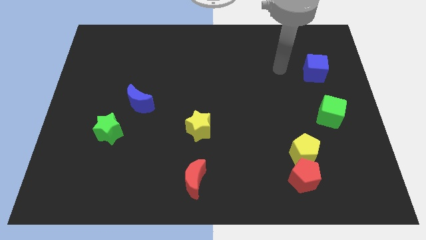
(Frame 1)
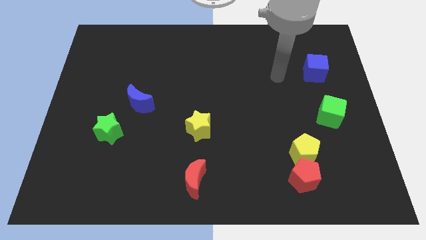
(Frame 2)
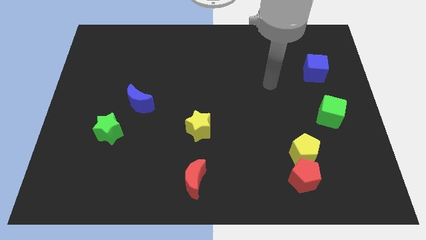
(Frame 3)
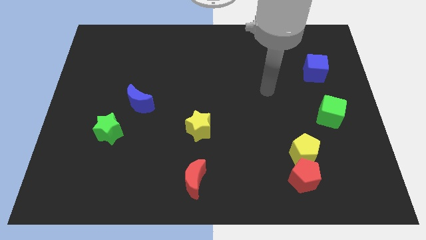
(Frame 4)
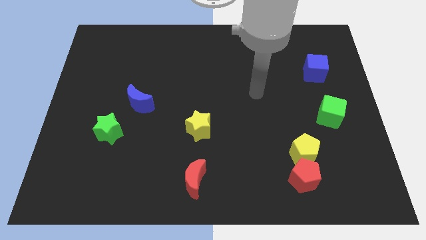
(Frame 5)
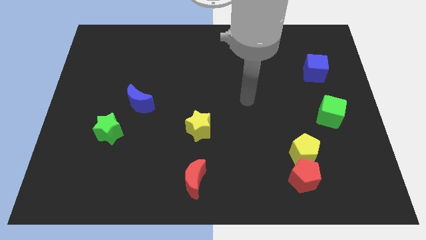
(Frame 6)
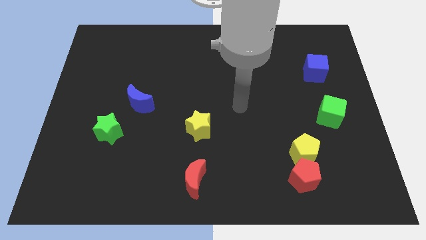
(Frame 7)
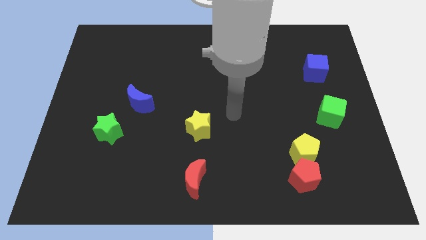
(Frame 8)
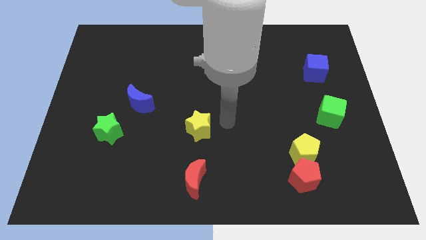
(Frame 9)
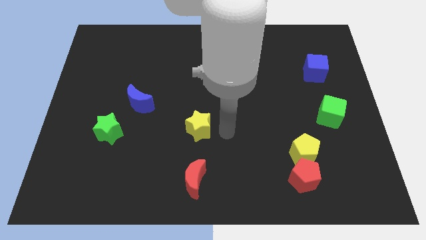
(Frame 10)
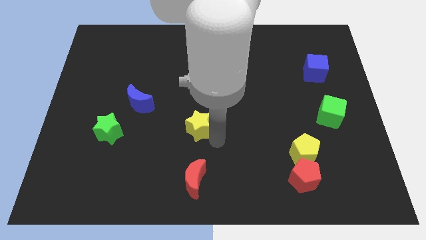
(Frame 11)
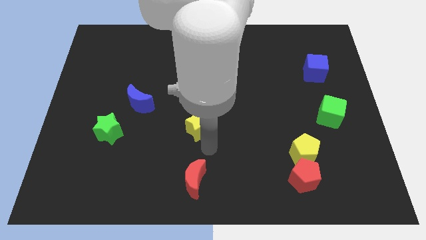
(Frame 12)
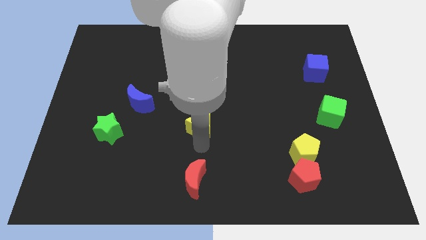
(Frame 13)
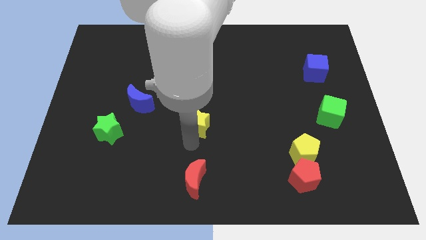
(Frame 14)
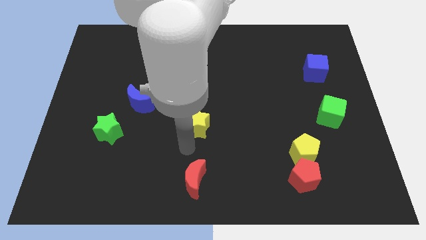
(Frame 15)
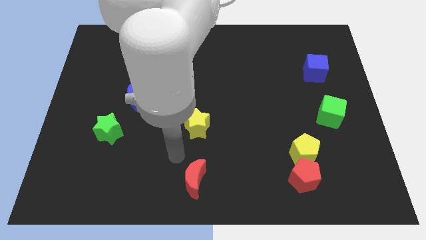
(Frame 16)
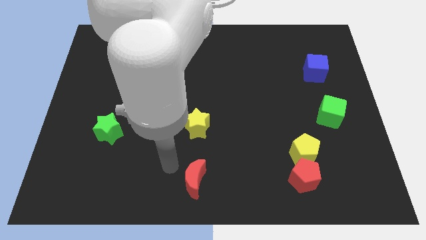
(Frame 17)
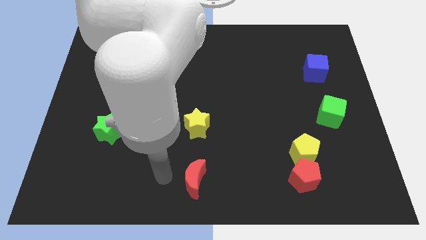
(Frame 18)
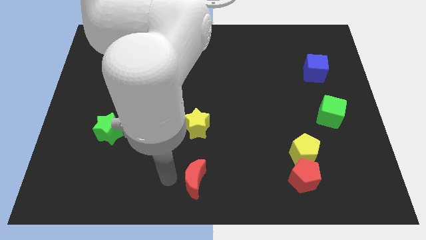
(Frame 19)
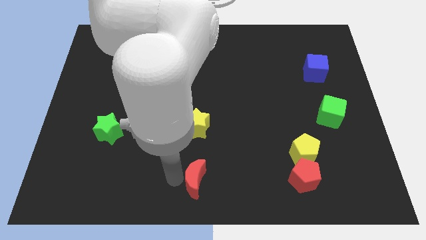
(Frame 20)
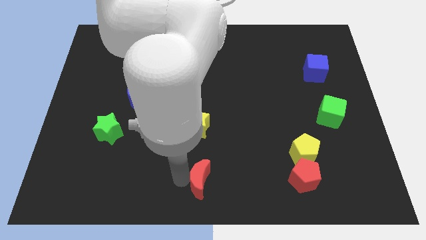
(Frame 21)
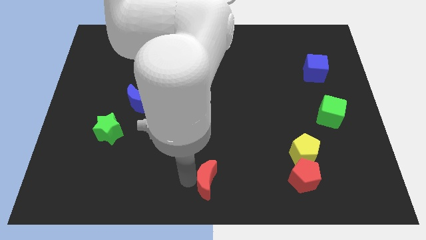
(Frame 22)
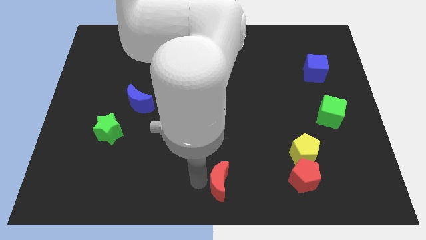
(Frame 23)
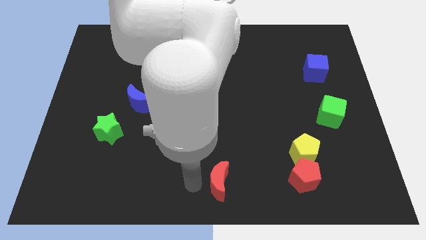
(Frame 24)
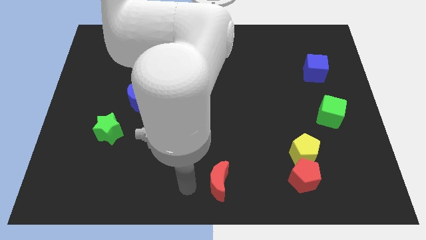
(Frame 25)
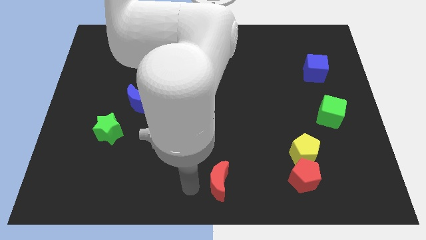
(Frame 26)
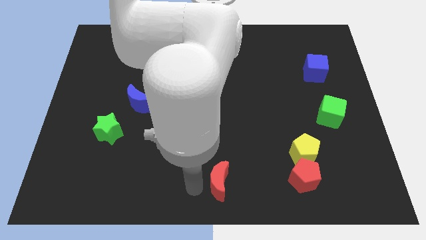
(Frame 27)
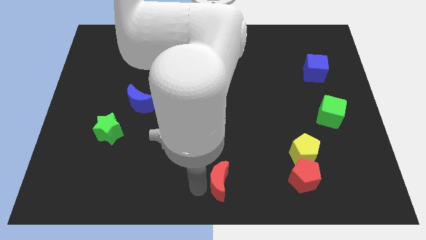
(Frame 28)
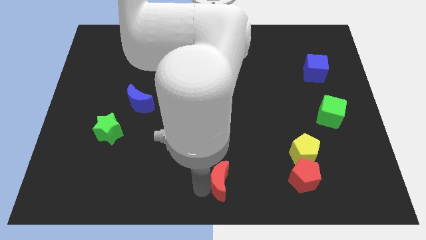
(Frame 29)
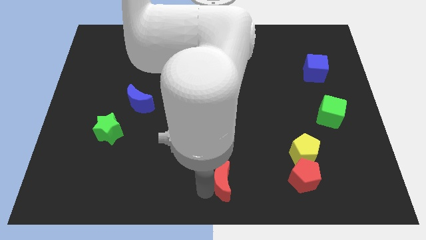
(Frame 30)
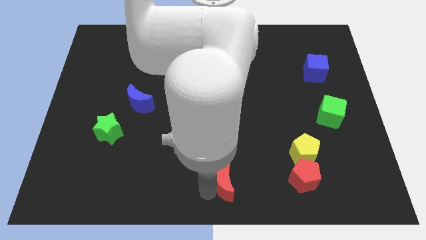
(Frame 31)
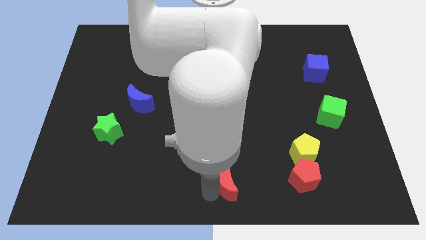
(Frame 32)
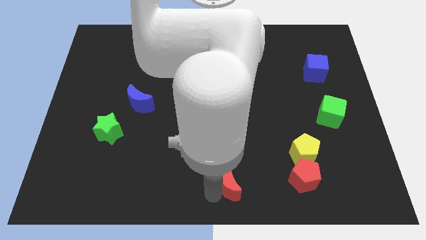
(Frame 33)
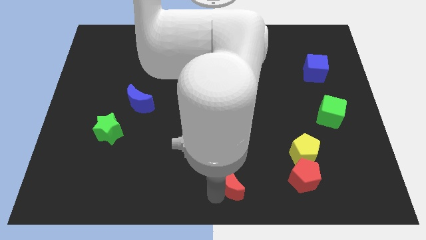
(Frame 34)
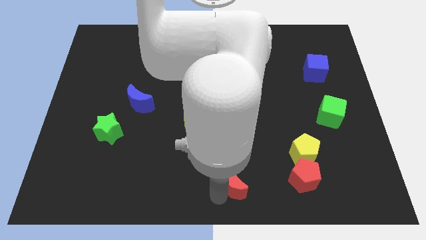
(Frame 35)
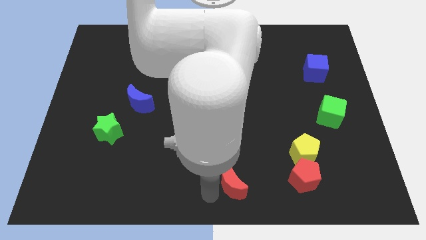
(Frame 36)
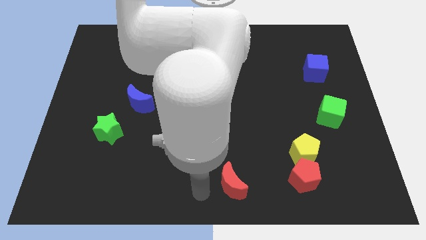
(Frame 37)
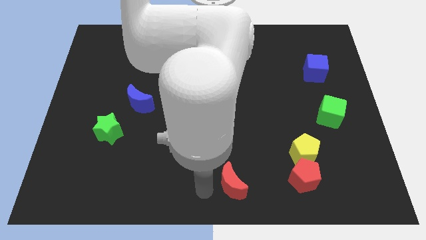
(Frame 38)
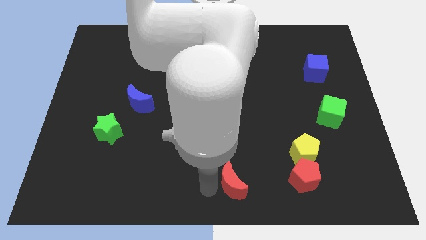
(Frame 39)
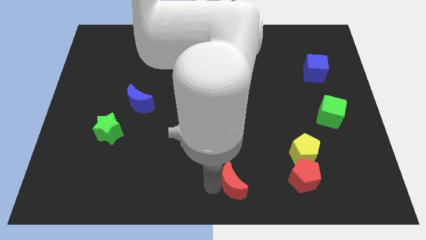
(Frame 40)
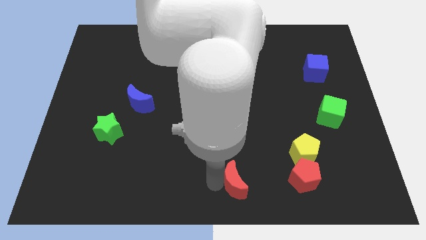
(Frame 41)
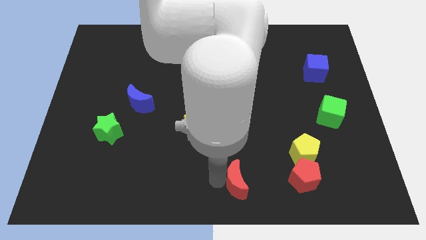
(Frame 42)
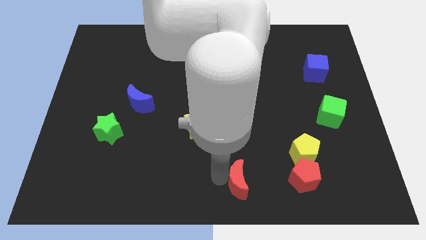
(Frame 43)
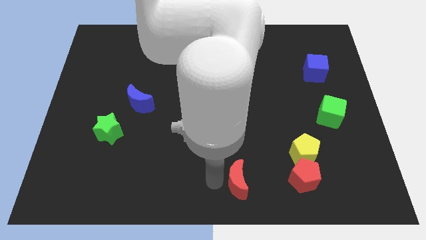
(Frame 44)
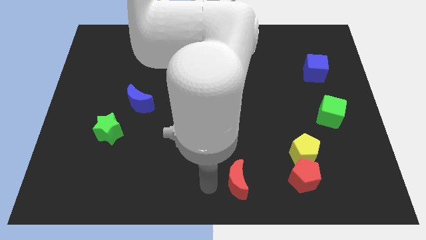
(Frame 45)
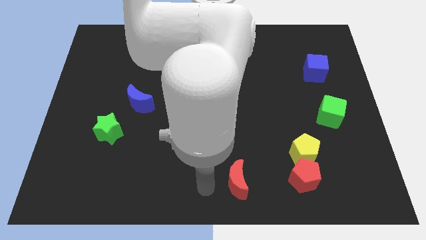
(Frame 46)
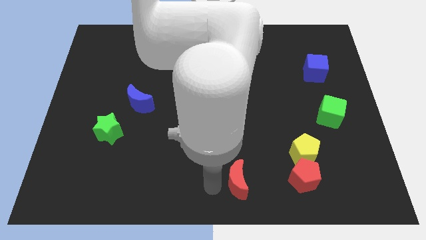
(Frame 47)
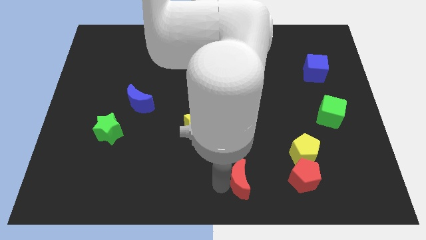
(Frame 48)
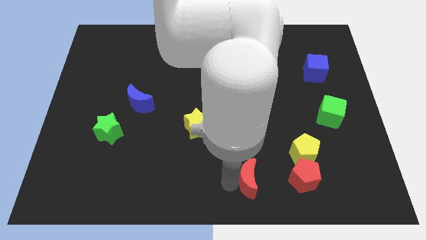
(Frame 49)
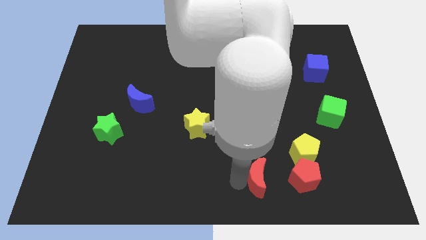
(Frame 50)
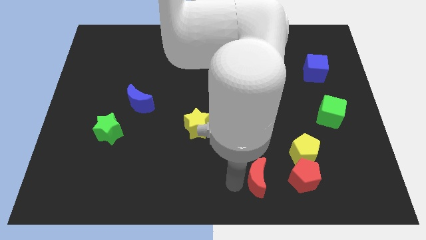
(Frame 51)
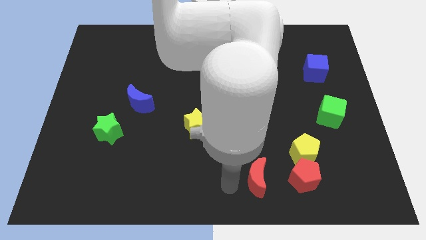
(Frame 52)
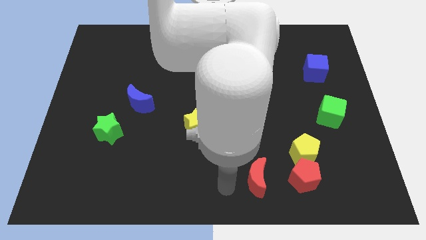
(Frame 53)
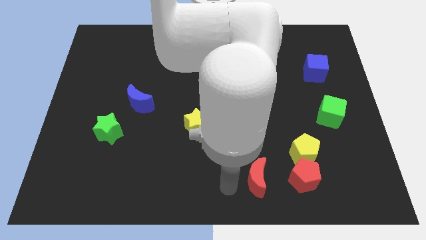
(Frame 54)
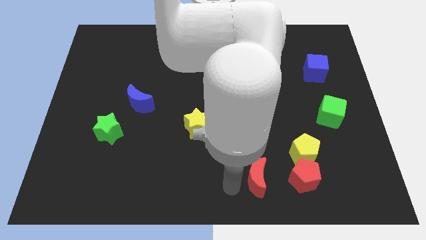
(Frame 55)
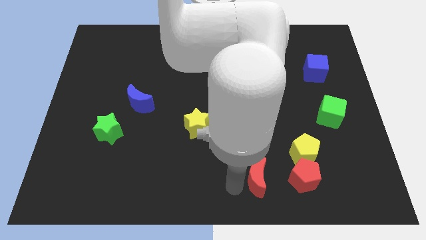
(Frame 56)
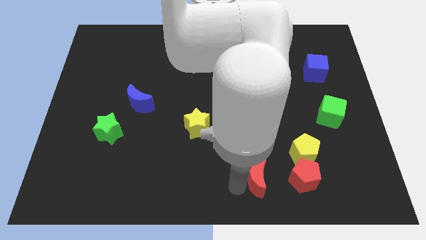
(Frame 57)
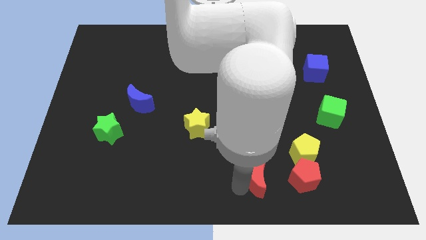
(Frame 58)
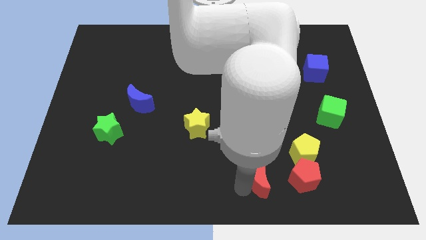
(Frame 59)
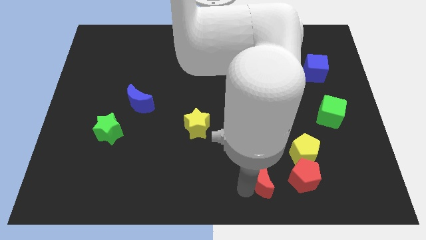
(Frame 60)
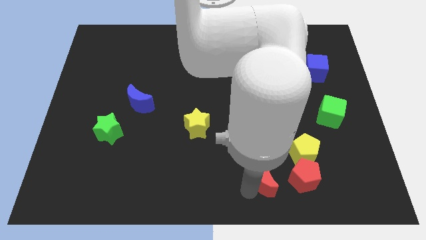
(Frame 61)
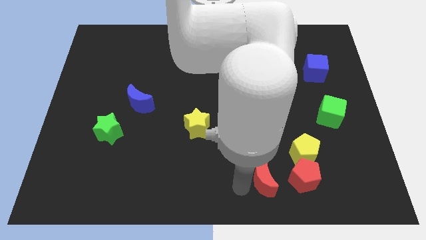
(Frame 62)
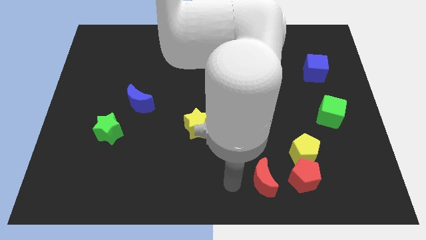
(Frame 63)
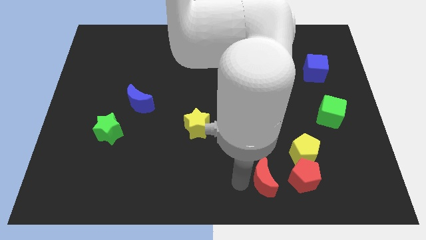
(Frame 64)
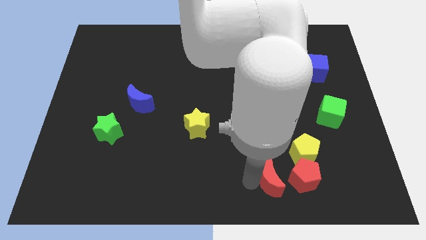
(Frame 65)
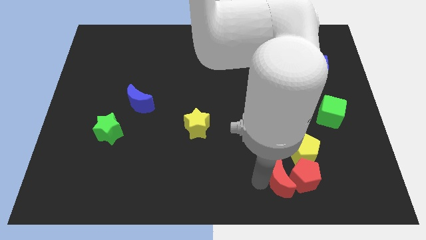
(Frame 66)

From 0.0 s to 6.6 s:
put the red moon close to the red pentagon

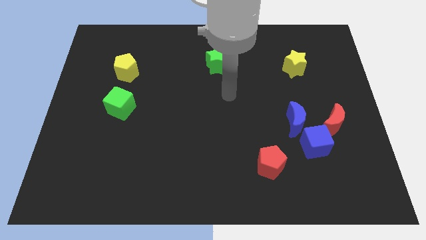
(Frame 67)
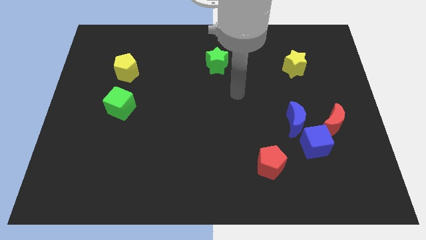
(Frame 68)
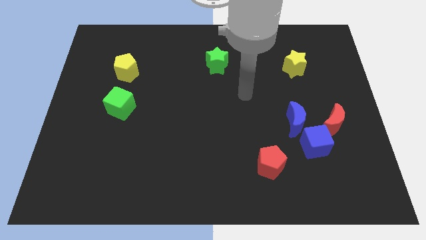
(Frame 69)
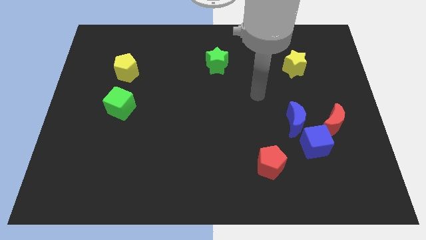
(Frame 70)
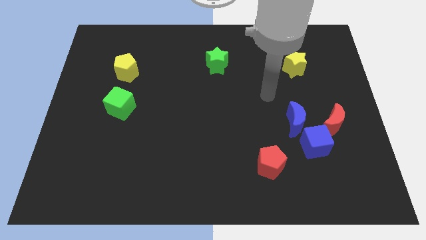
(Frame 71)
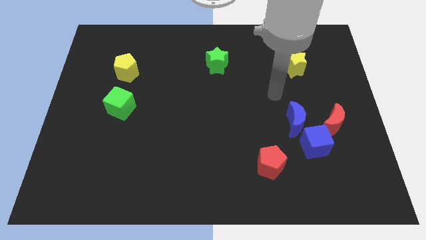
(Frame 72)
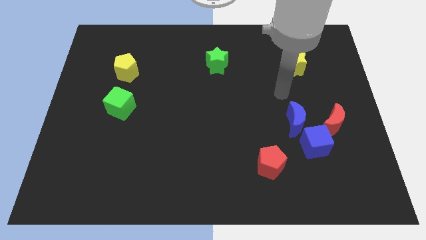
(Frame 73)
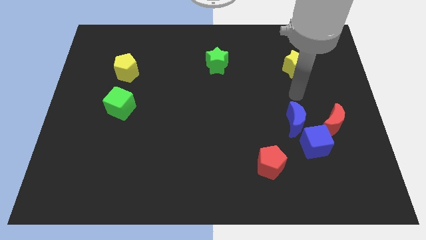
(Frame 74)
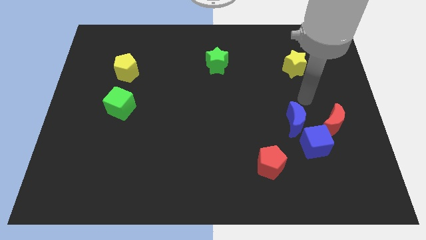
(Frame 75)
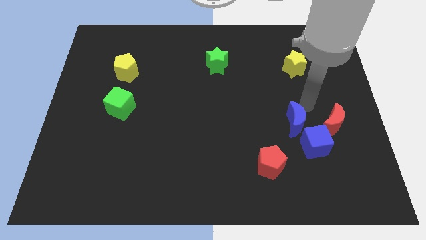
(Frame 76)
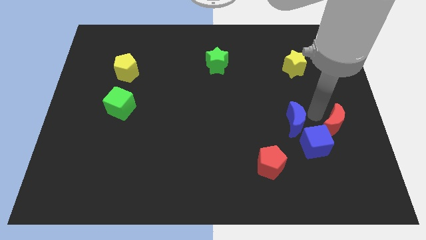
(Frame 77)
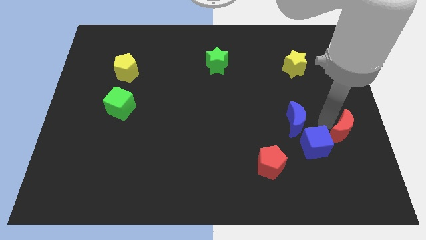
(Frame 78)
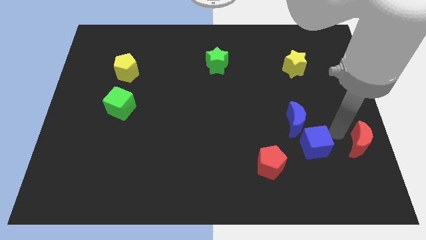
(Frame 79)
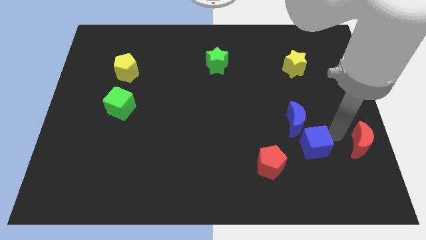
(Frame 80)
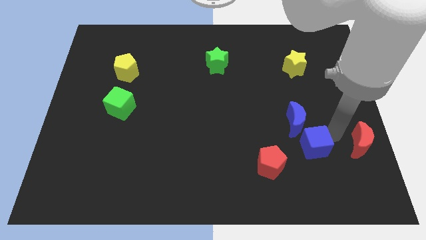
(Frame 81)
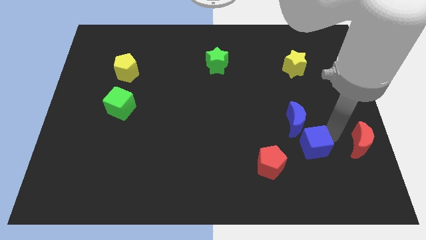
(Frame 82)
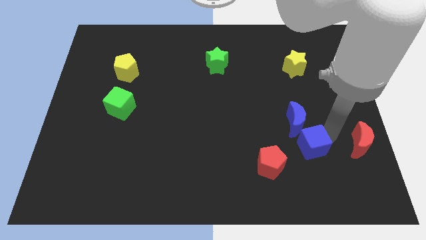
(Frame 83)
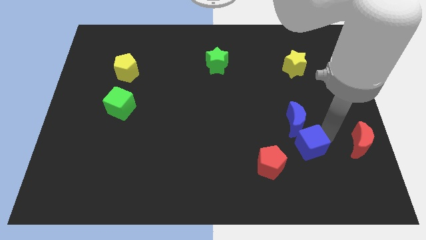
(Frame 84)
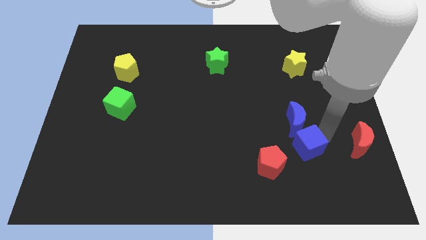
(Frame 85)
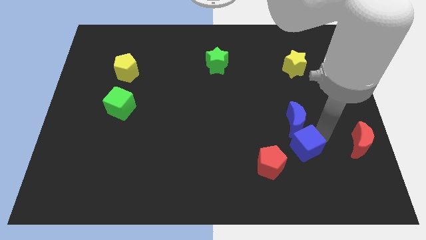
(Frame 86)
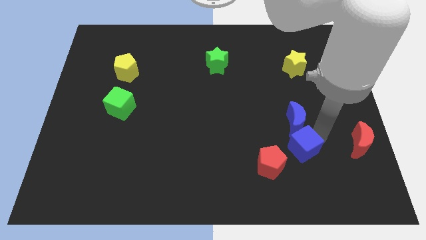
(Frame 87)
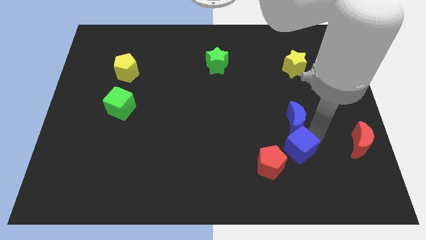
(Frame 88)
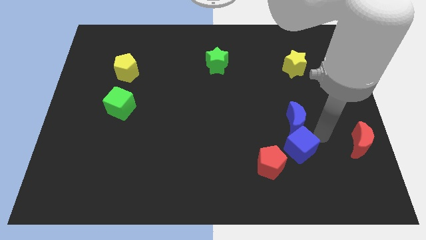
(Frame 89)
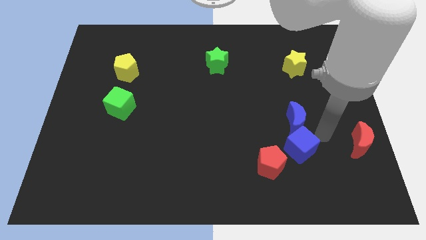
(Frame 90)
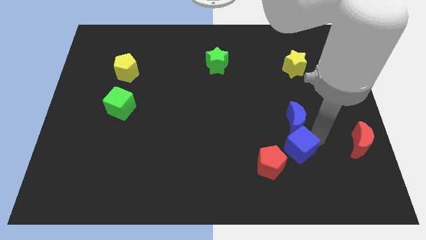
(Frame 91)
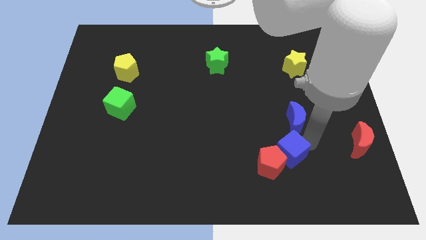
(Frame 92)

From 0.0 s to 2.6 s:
push the blue cube close to the red pentagon
